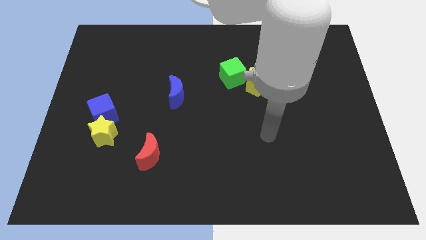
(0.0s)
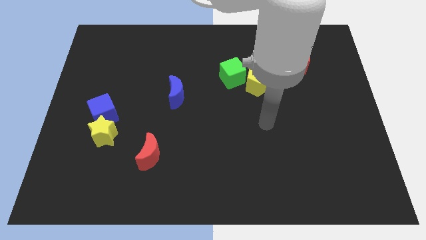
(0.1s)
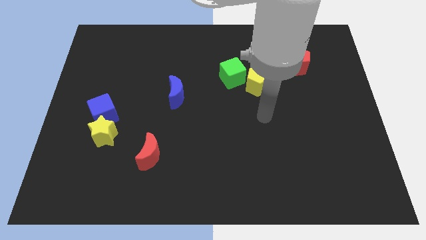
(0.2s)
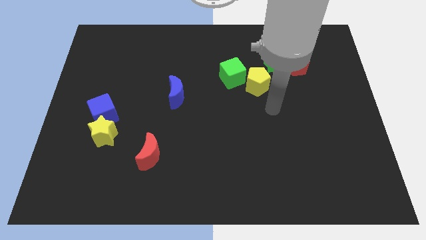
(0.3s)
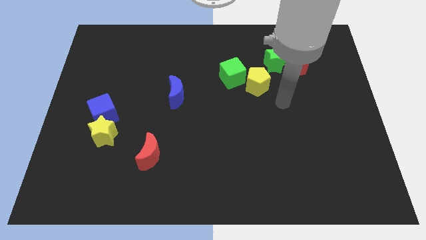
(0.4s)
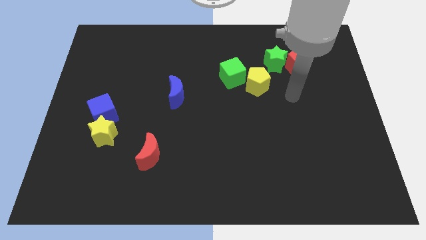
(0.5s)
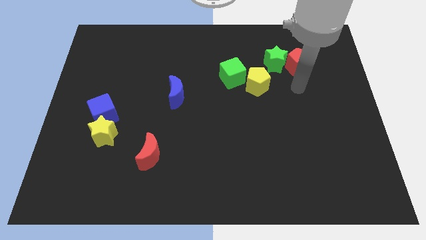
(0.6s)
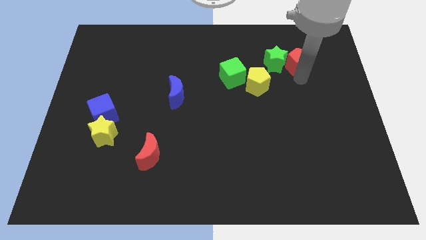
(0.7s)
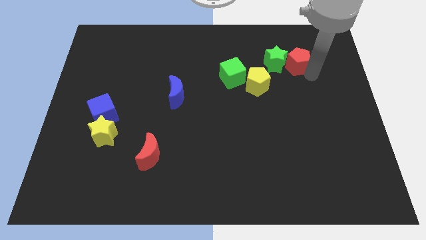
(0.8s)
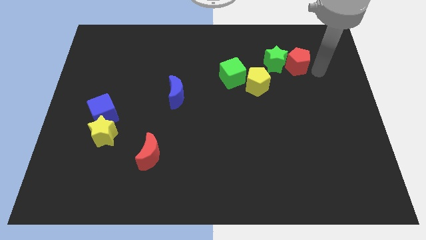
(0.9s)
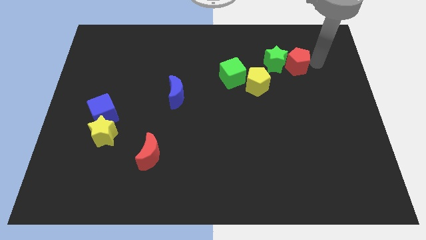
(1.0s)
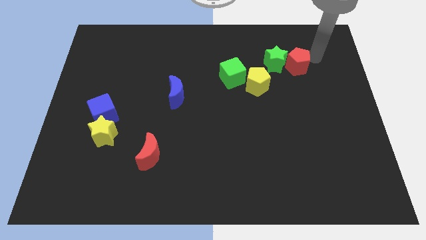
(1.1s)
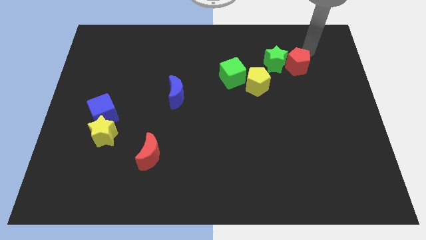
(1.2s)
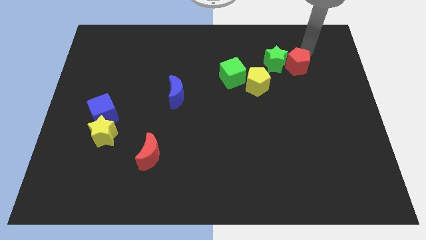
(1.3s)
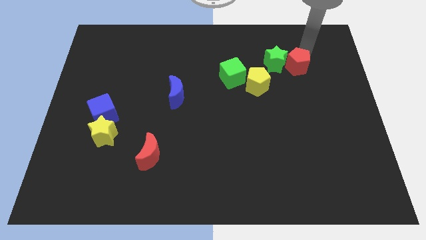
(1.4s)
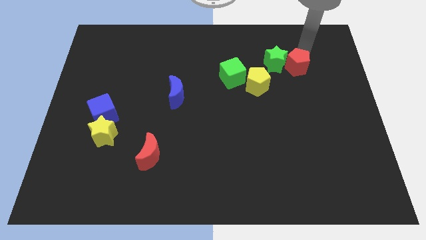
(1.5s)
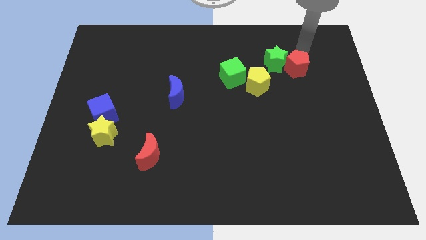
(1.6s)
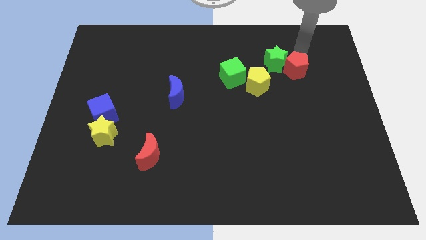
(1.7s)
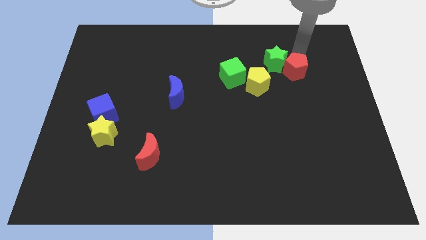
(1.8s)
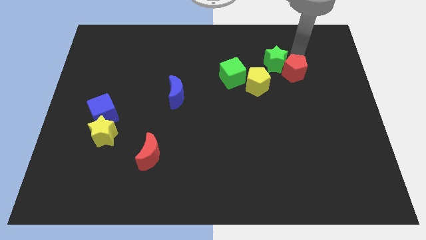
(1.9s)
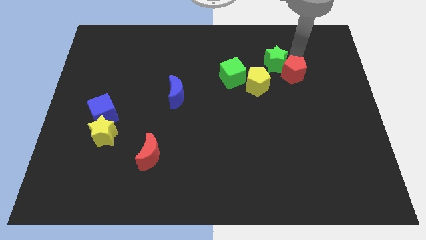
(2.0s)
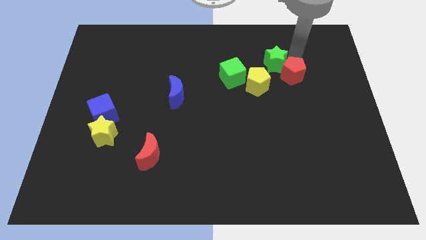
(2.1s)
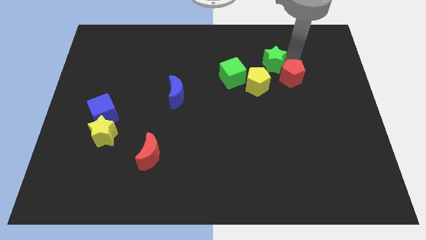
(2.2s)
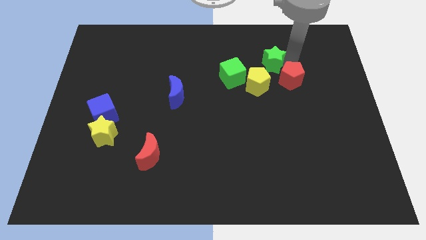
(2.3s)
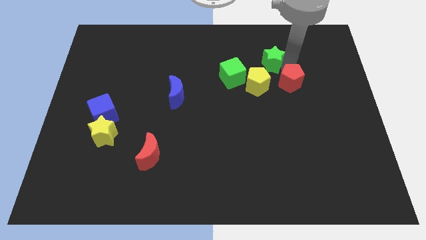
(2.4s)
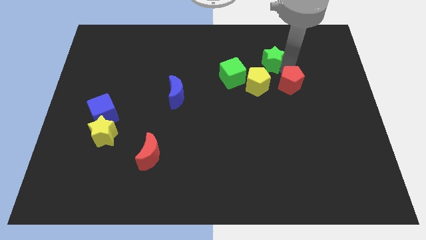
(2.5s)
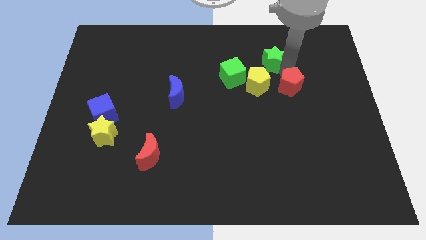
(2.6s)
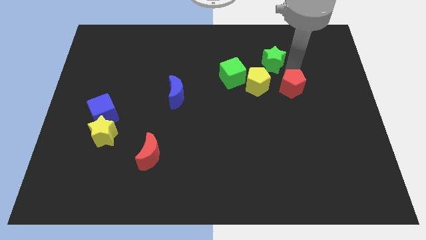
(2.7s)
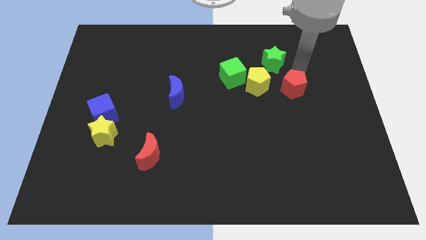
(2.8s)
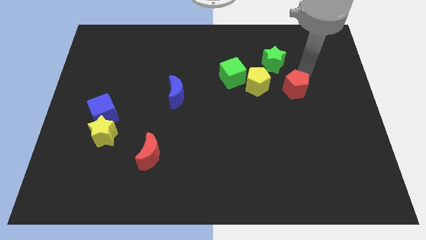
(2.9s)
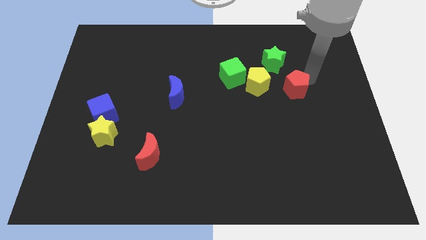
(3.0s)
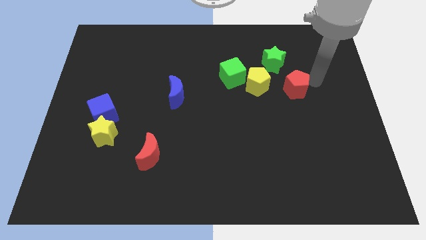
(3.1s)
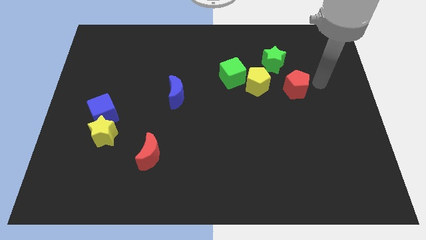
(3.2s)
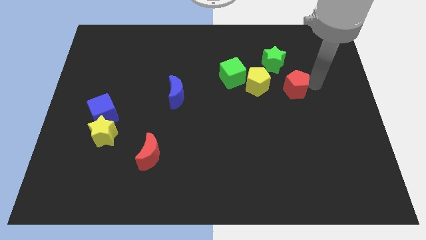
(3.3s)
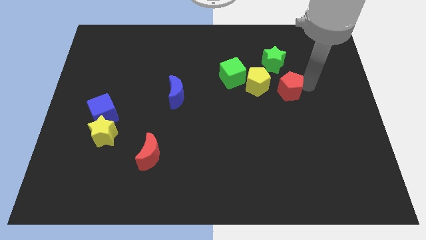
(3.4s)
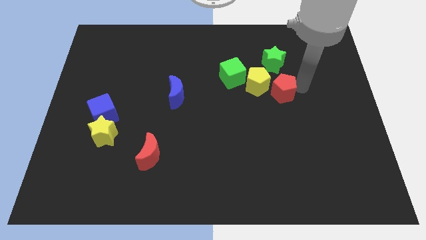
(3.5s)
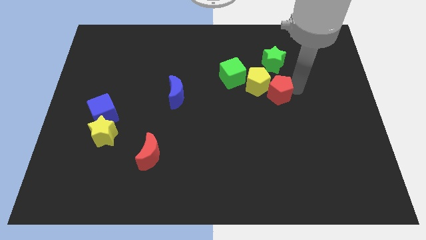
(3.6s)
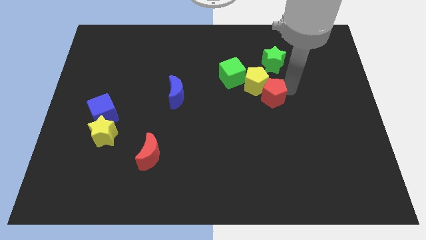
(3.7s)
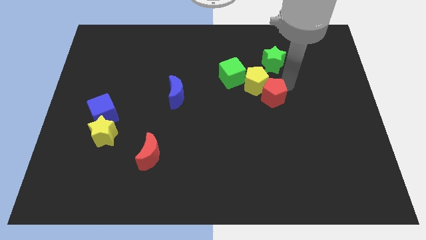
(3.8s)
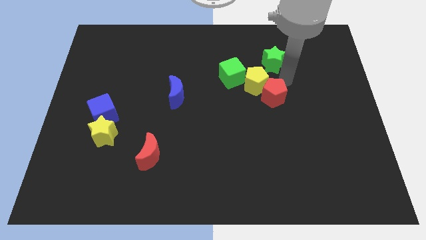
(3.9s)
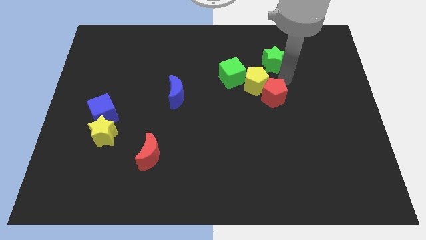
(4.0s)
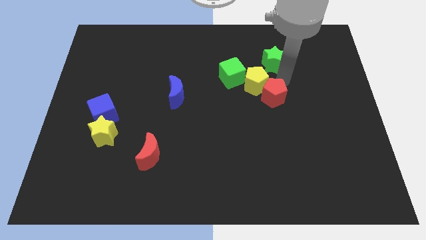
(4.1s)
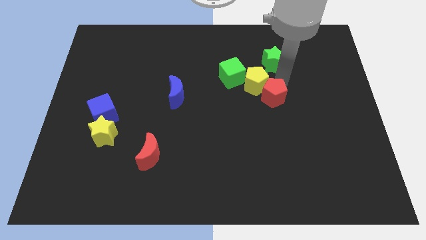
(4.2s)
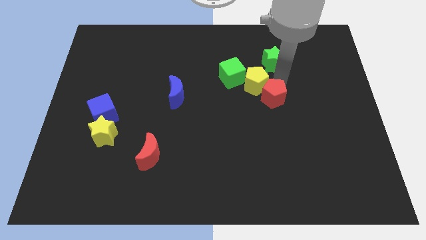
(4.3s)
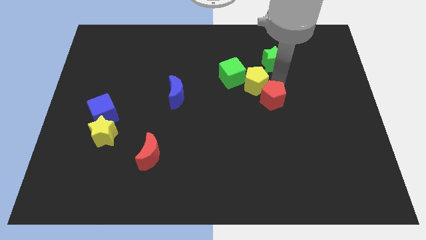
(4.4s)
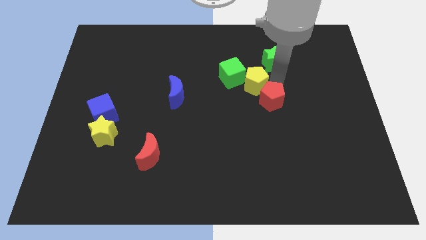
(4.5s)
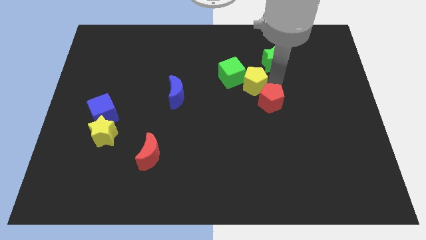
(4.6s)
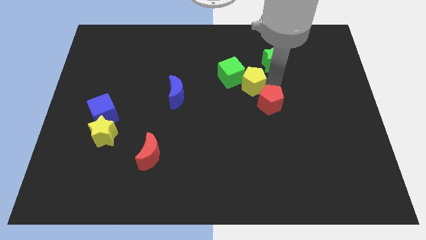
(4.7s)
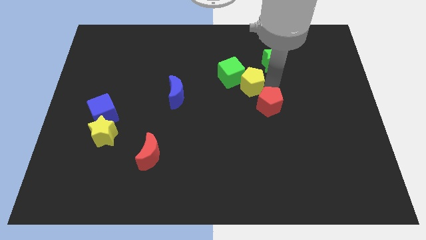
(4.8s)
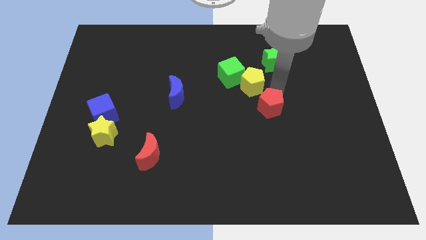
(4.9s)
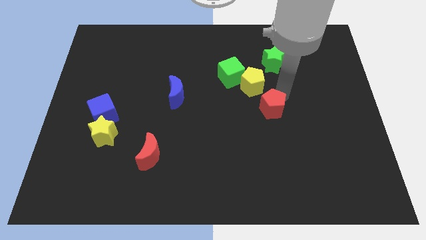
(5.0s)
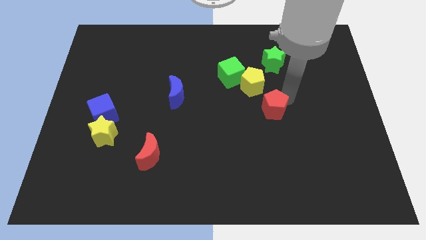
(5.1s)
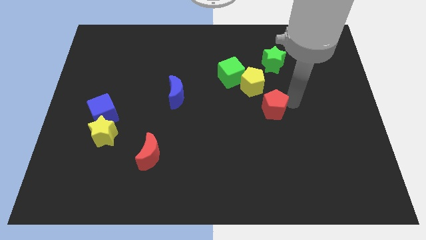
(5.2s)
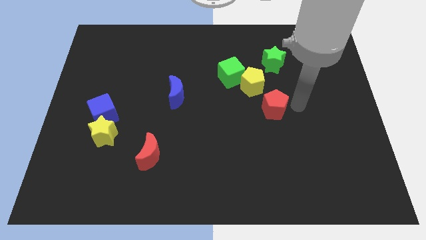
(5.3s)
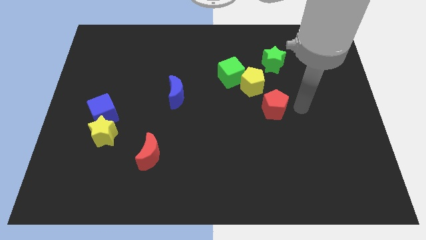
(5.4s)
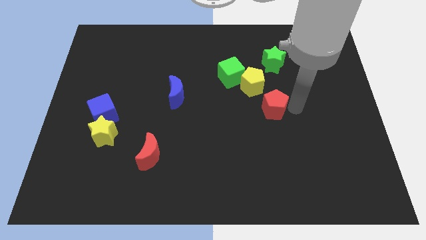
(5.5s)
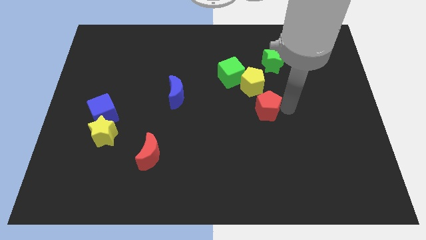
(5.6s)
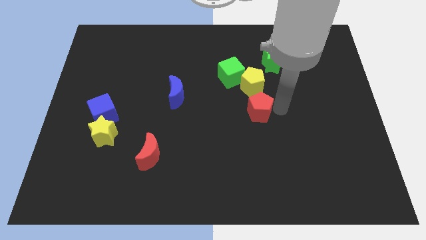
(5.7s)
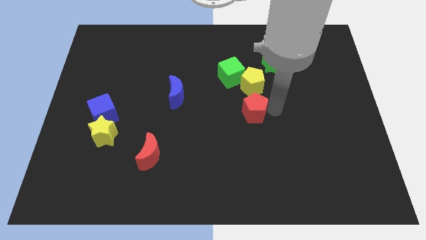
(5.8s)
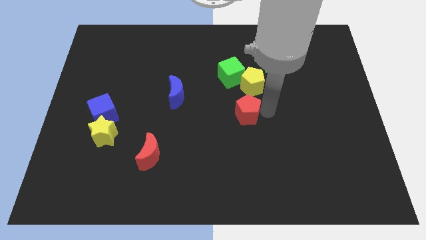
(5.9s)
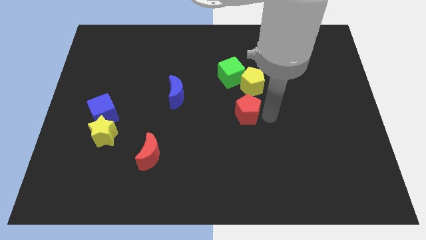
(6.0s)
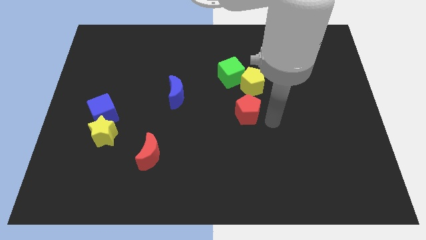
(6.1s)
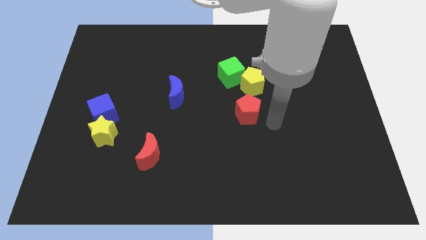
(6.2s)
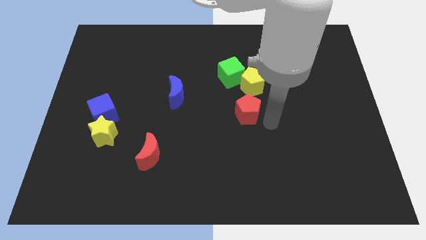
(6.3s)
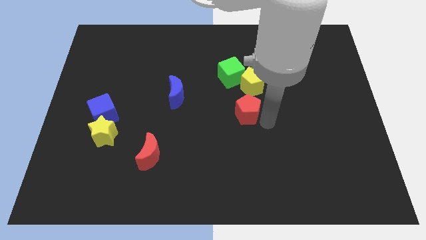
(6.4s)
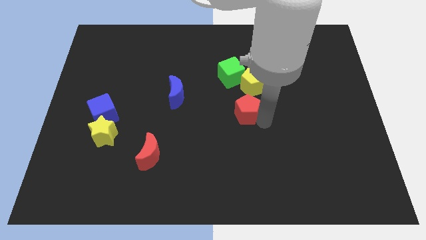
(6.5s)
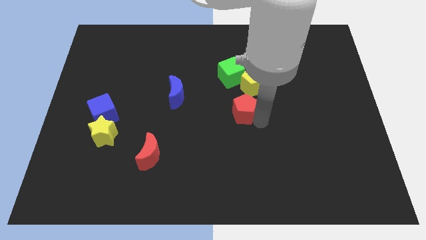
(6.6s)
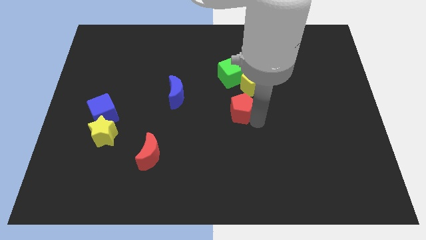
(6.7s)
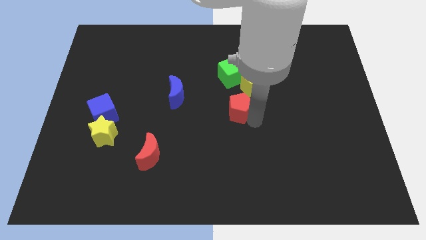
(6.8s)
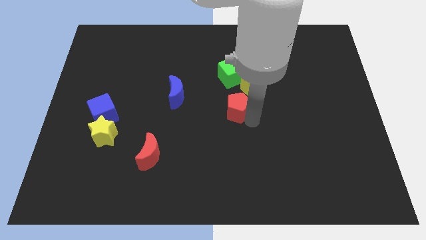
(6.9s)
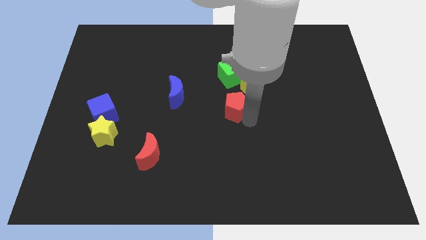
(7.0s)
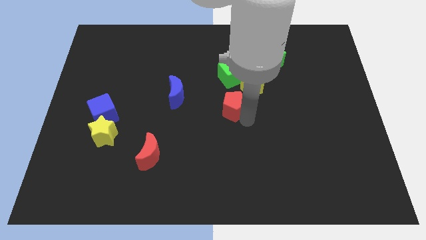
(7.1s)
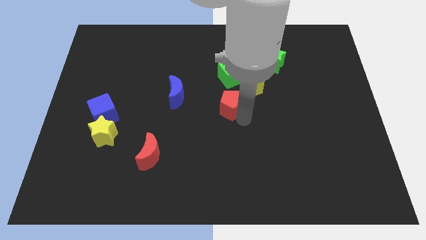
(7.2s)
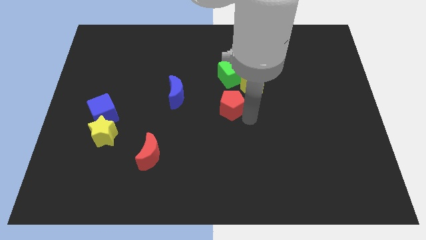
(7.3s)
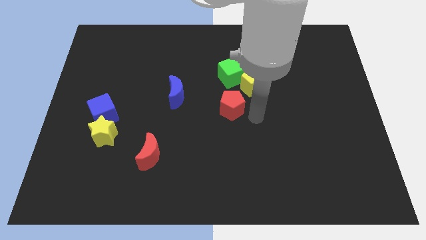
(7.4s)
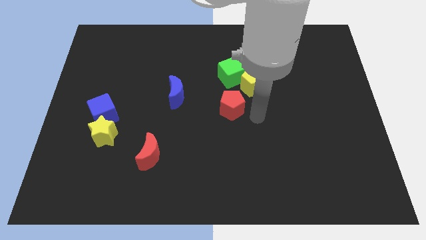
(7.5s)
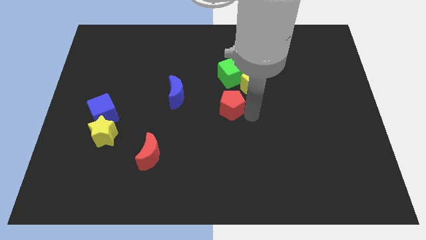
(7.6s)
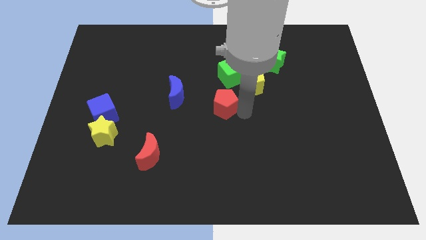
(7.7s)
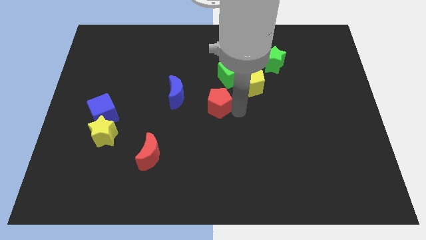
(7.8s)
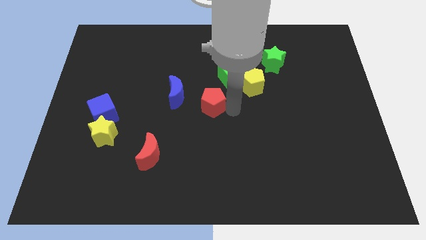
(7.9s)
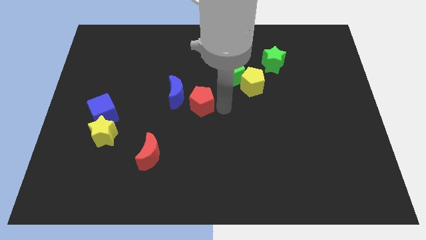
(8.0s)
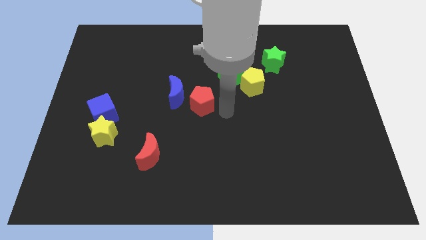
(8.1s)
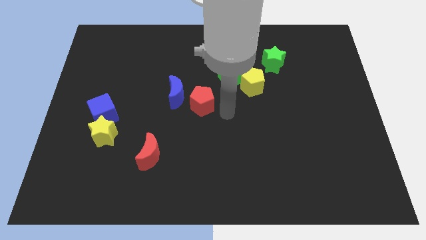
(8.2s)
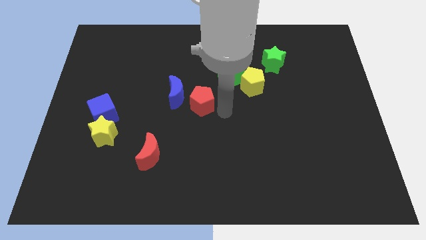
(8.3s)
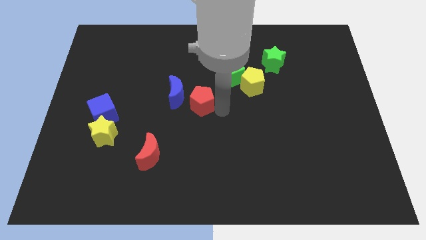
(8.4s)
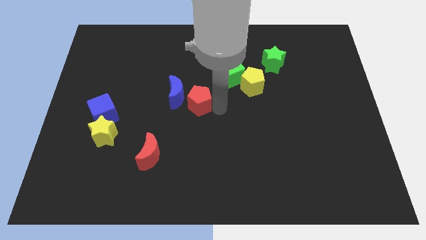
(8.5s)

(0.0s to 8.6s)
push the red pentagon close to the blue moon
